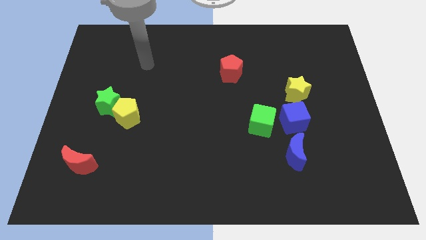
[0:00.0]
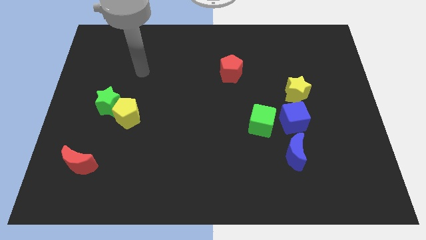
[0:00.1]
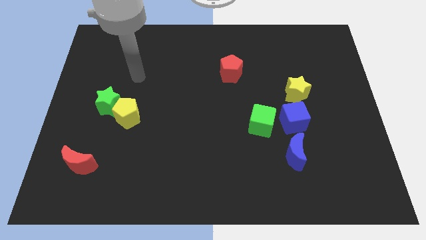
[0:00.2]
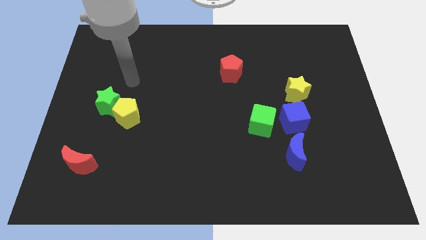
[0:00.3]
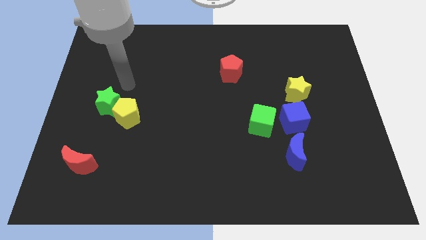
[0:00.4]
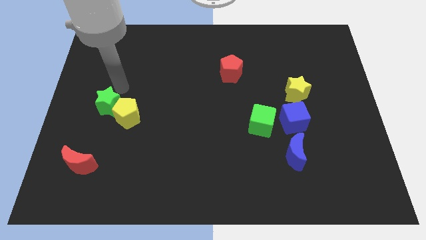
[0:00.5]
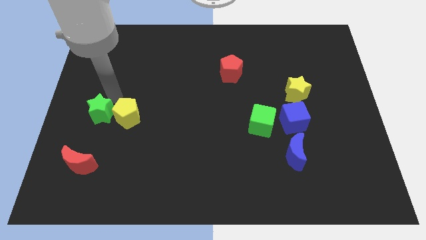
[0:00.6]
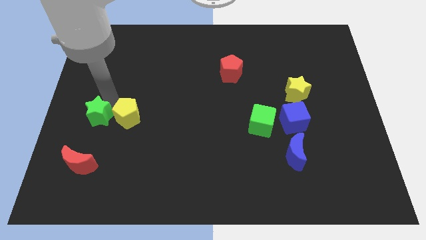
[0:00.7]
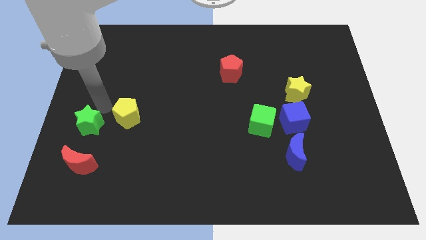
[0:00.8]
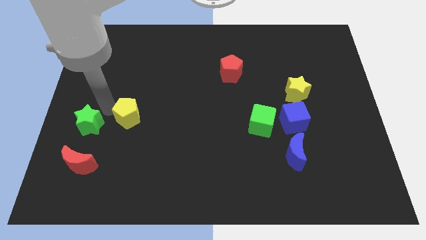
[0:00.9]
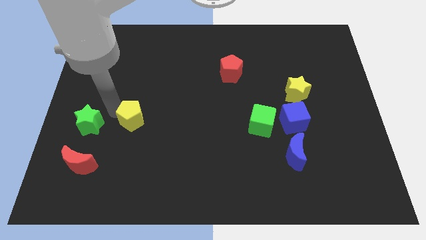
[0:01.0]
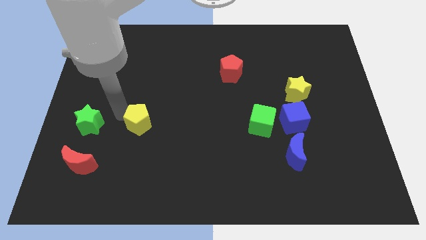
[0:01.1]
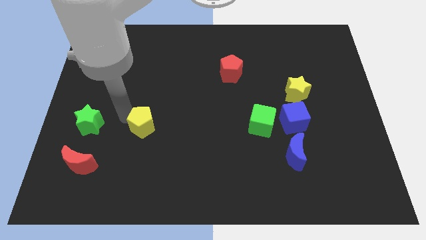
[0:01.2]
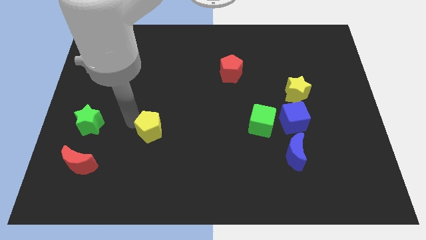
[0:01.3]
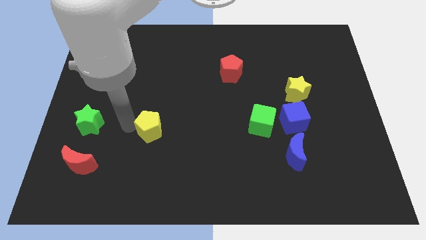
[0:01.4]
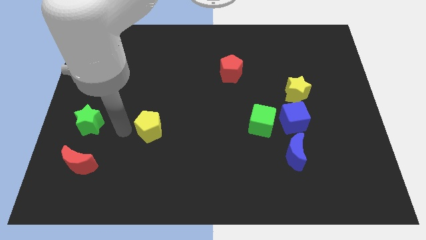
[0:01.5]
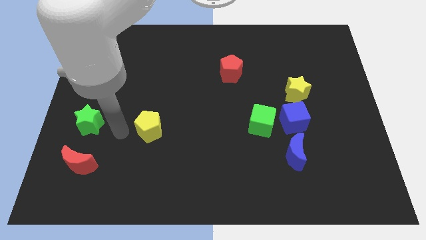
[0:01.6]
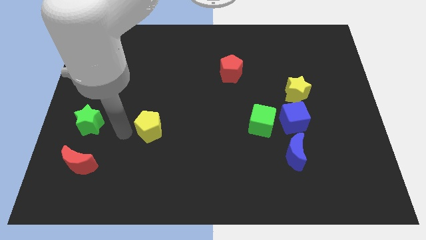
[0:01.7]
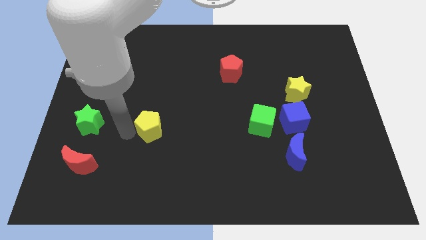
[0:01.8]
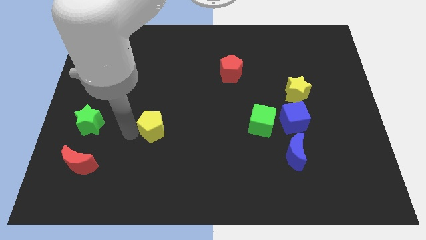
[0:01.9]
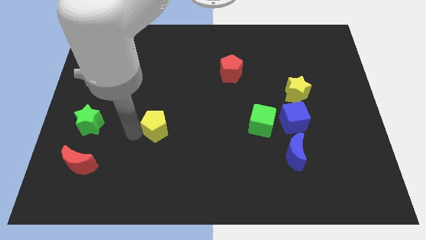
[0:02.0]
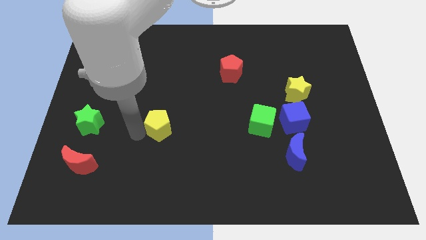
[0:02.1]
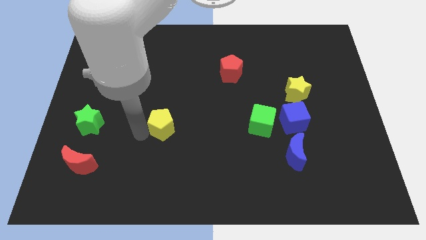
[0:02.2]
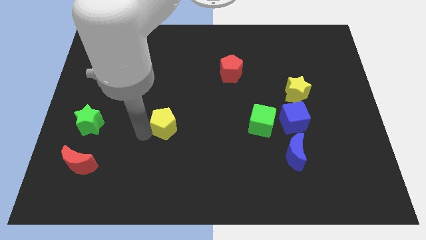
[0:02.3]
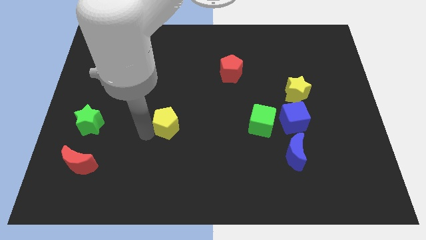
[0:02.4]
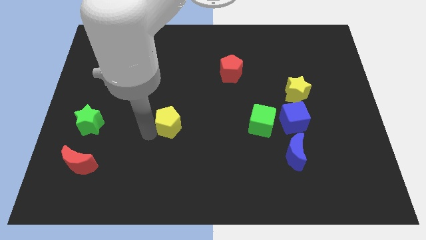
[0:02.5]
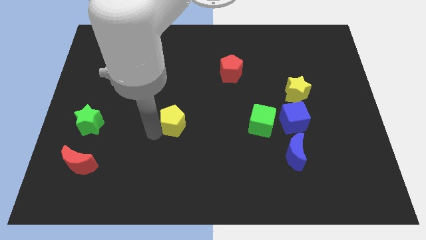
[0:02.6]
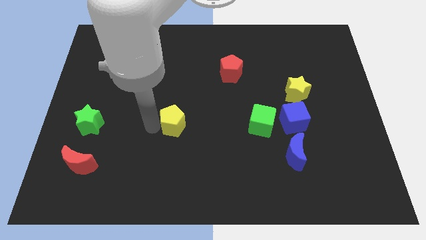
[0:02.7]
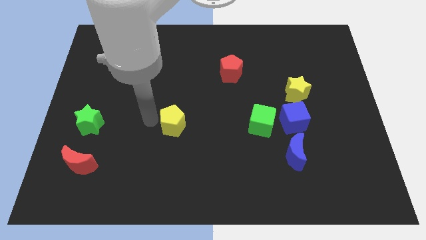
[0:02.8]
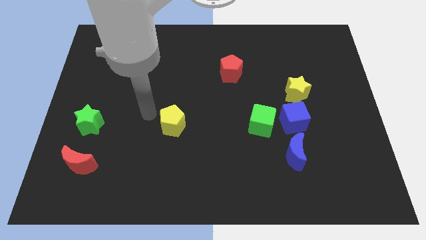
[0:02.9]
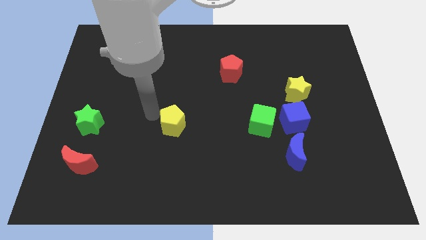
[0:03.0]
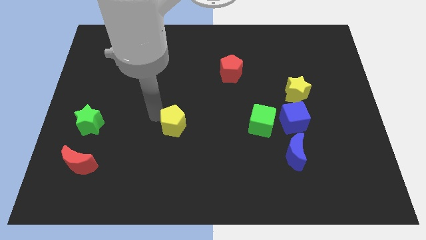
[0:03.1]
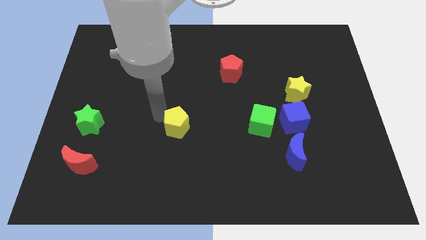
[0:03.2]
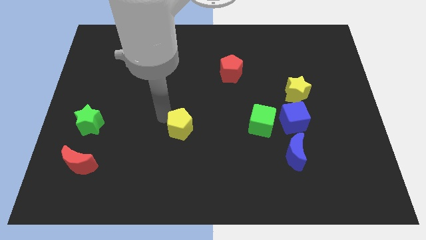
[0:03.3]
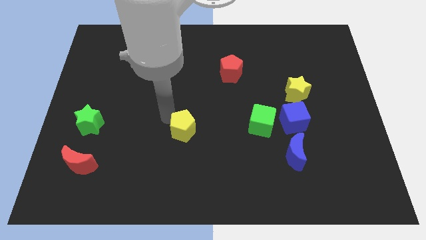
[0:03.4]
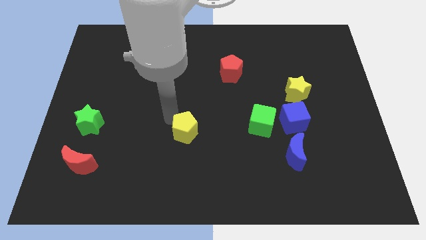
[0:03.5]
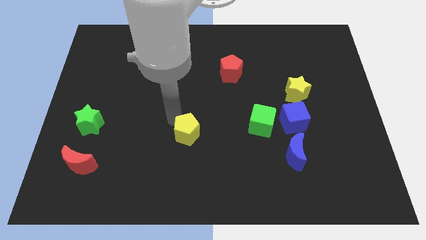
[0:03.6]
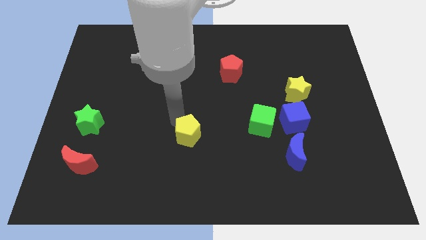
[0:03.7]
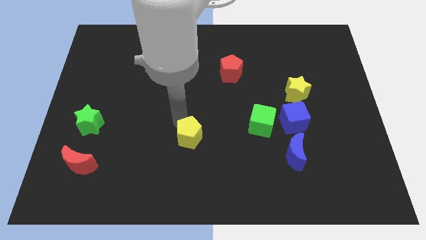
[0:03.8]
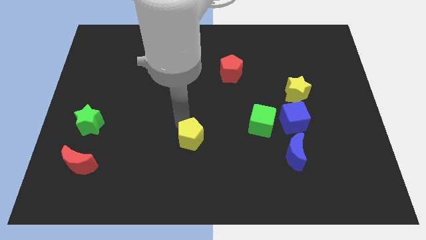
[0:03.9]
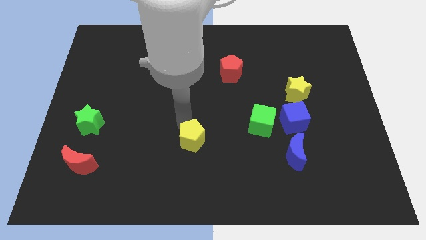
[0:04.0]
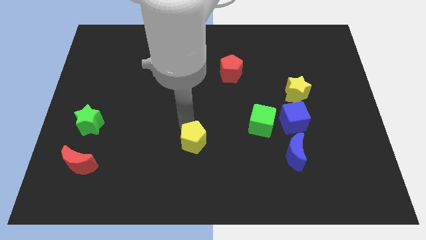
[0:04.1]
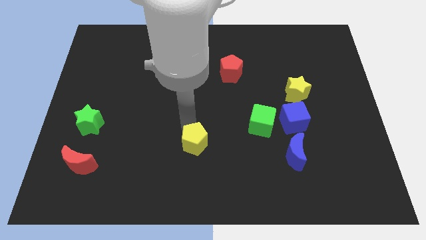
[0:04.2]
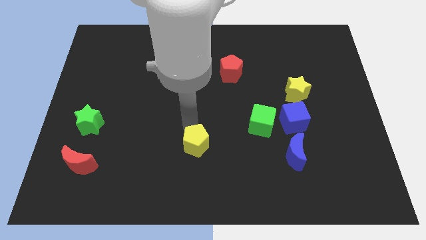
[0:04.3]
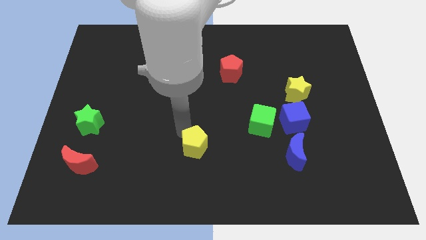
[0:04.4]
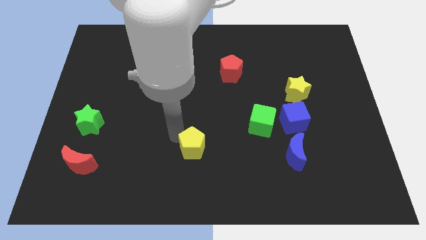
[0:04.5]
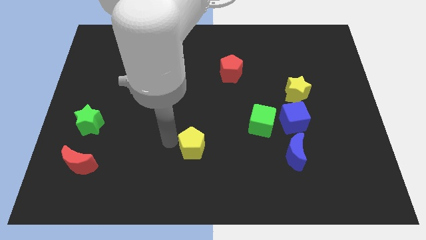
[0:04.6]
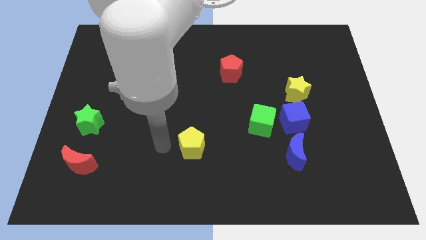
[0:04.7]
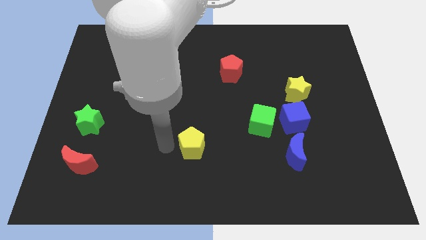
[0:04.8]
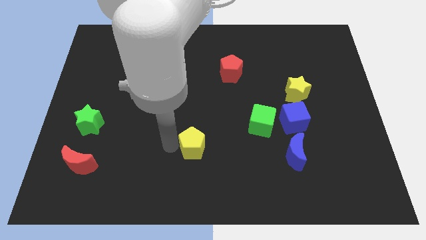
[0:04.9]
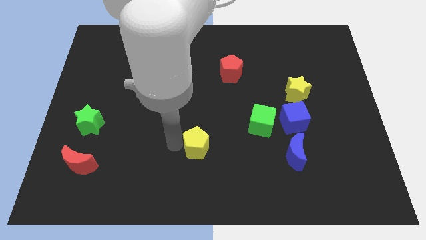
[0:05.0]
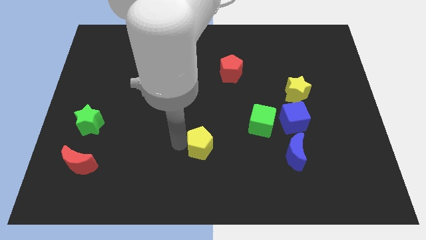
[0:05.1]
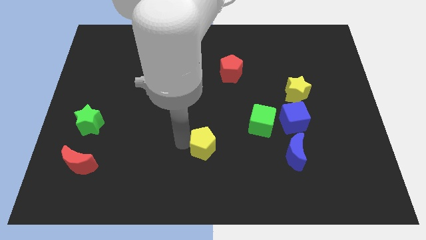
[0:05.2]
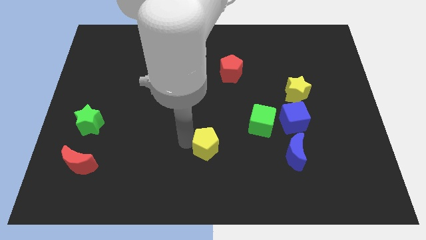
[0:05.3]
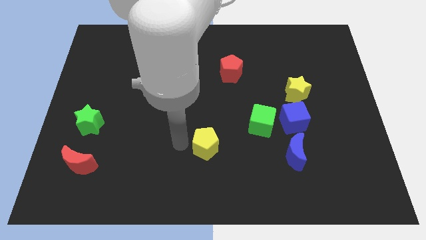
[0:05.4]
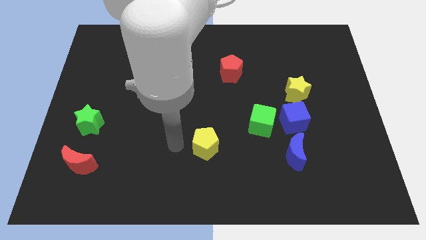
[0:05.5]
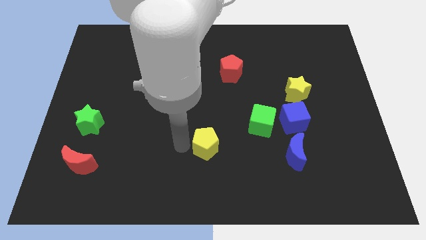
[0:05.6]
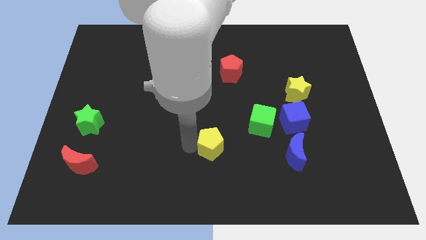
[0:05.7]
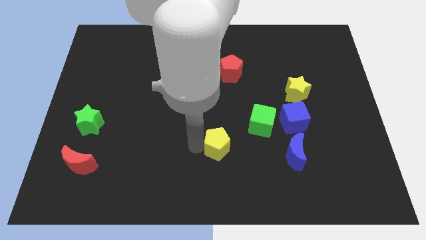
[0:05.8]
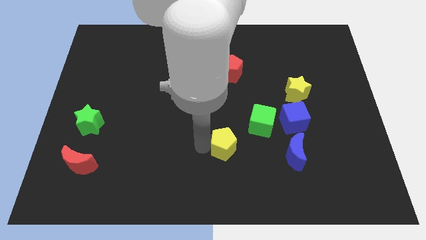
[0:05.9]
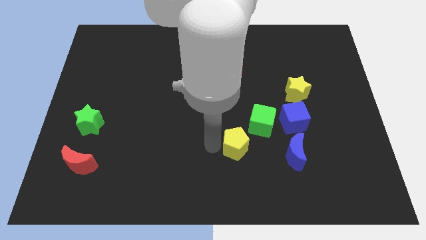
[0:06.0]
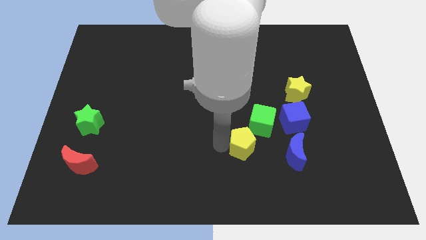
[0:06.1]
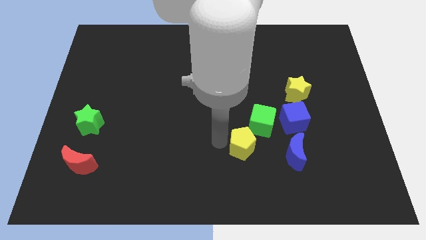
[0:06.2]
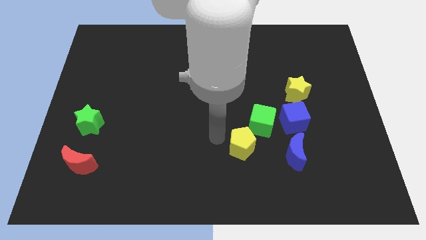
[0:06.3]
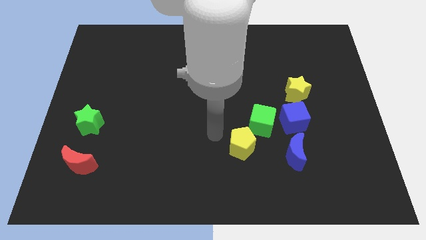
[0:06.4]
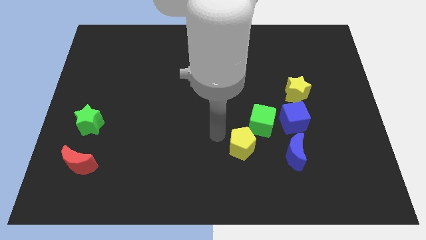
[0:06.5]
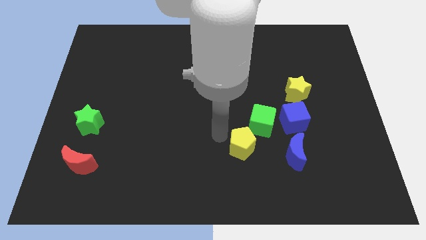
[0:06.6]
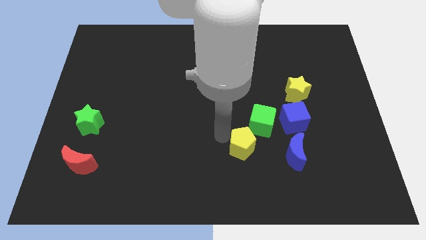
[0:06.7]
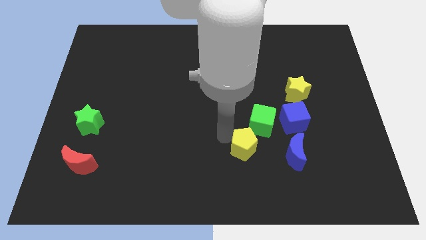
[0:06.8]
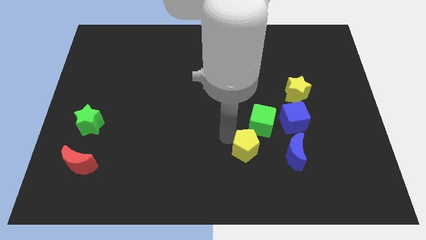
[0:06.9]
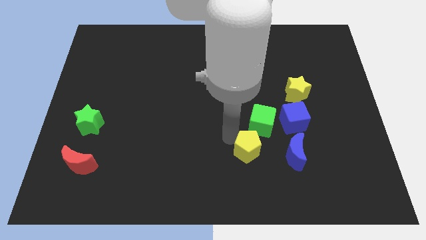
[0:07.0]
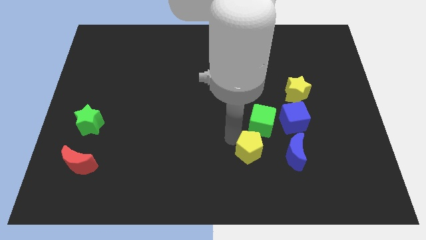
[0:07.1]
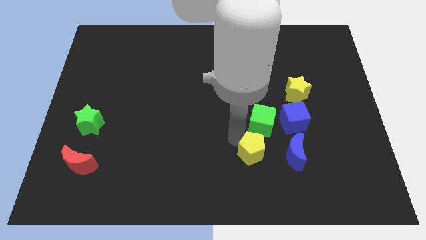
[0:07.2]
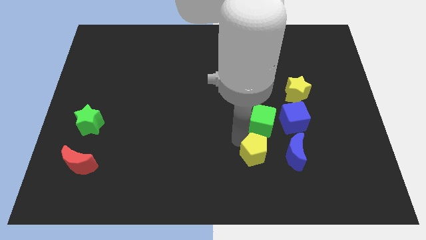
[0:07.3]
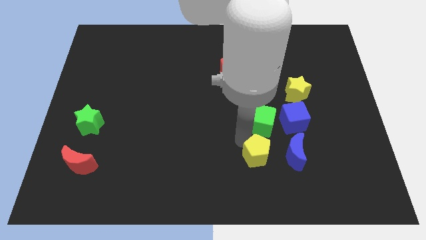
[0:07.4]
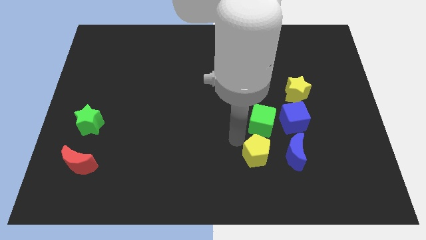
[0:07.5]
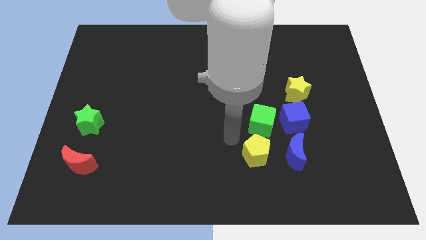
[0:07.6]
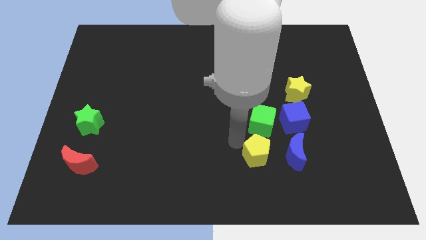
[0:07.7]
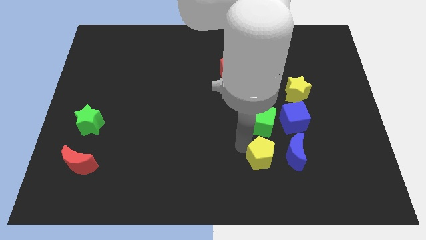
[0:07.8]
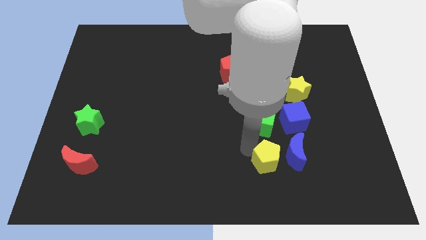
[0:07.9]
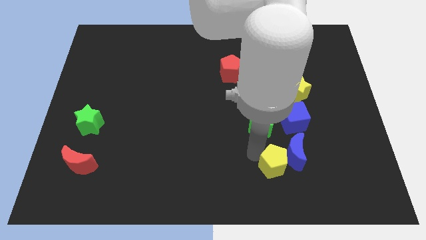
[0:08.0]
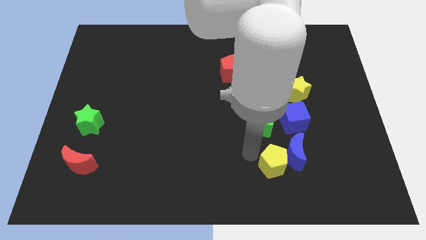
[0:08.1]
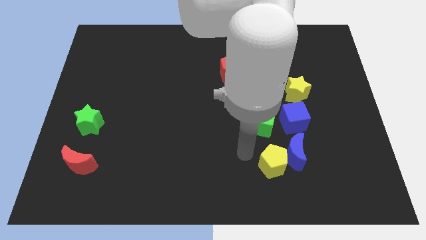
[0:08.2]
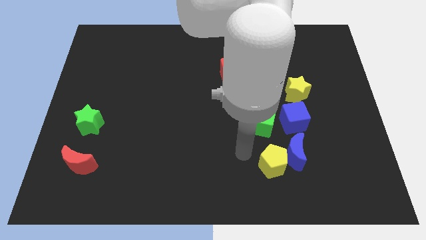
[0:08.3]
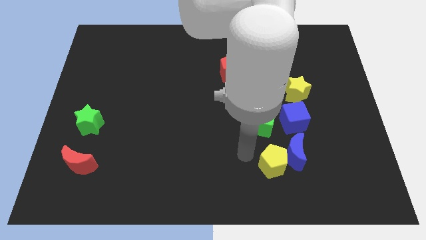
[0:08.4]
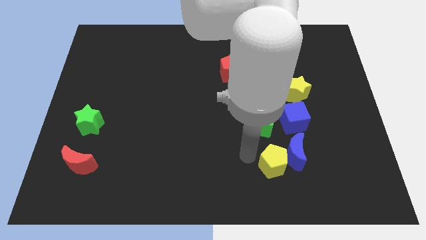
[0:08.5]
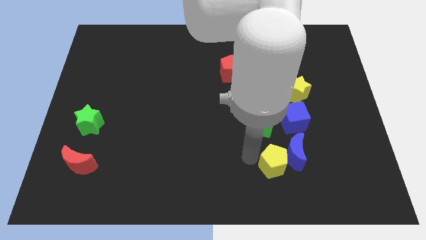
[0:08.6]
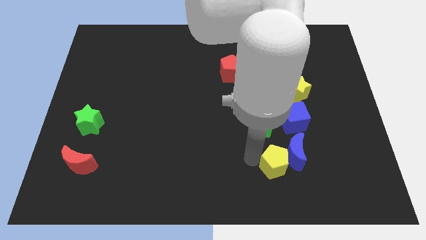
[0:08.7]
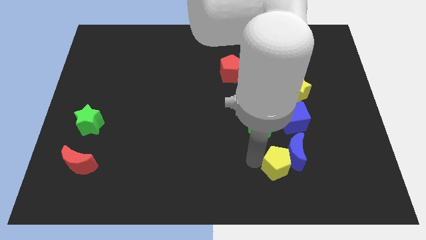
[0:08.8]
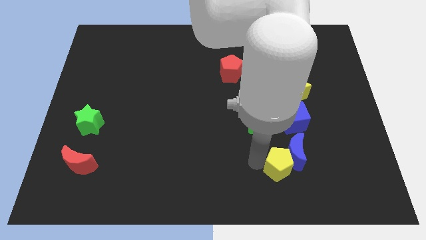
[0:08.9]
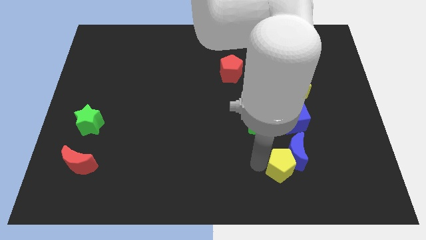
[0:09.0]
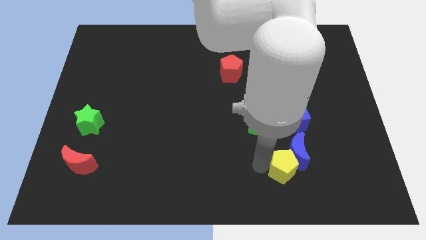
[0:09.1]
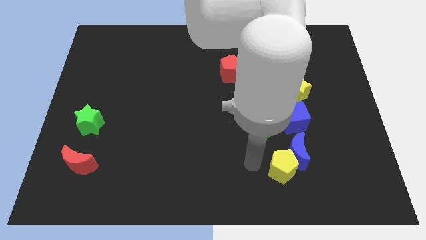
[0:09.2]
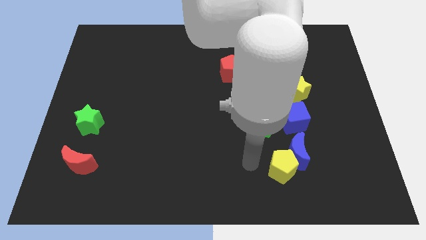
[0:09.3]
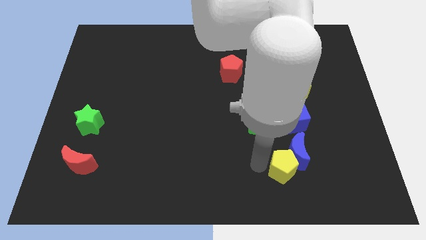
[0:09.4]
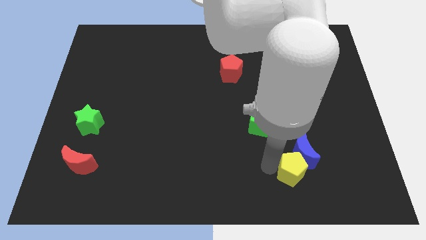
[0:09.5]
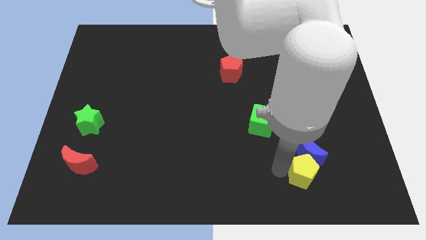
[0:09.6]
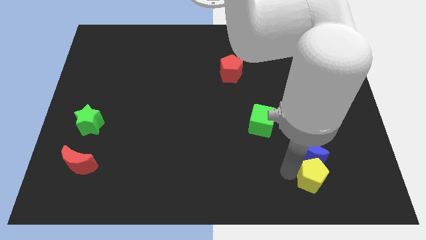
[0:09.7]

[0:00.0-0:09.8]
move the yellow pentagon to the bottom right side of the blue moon
